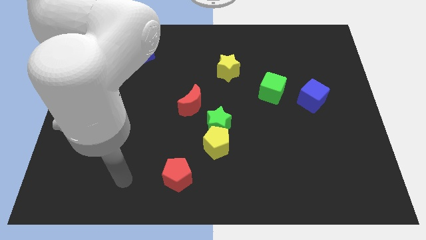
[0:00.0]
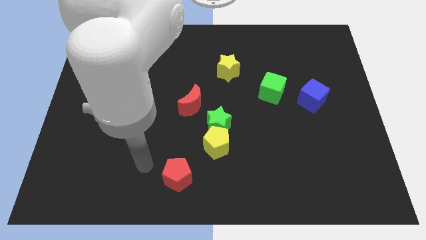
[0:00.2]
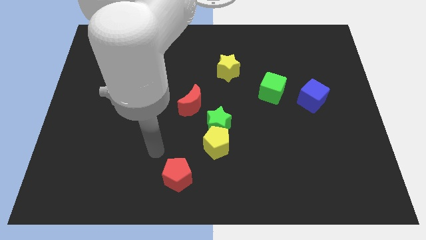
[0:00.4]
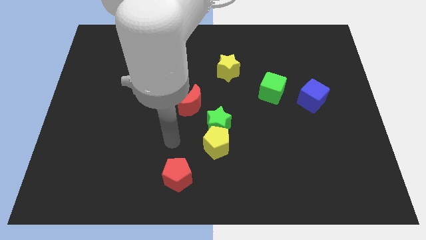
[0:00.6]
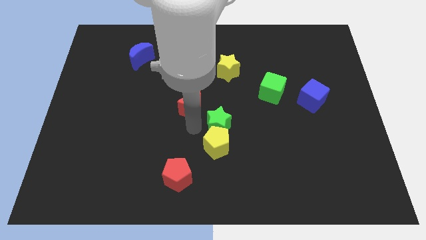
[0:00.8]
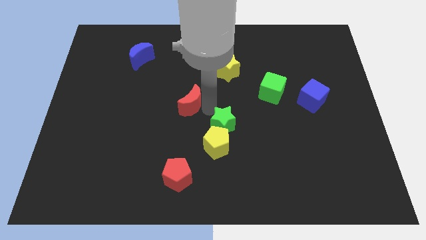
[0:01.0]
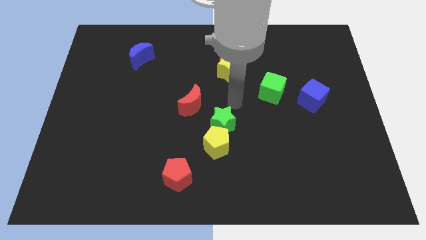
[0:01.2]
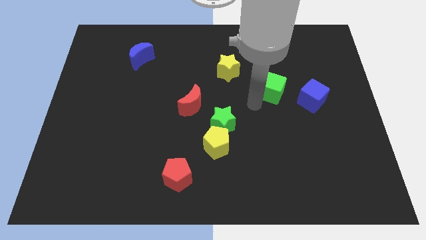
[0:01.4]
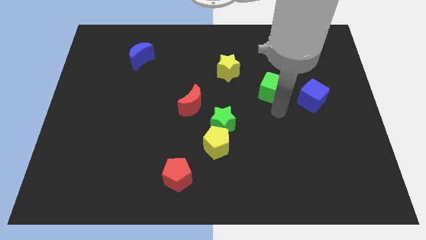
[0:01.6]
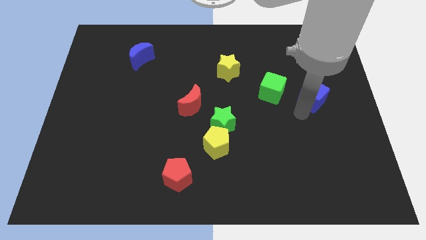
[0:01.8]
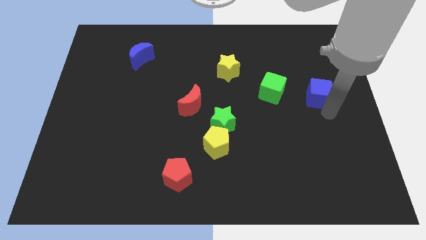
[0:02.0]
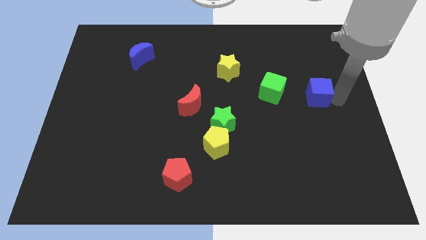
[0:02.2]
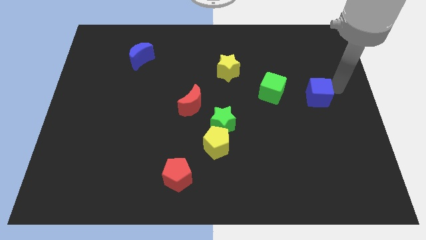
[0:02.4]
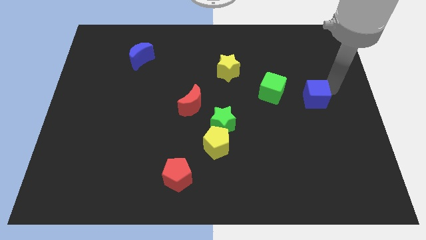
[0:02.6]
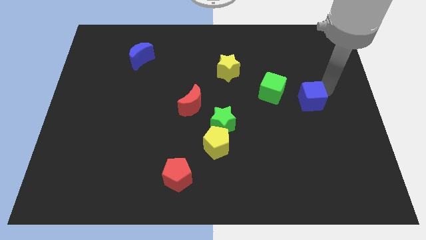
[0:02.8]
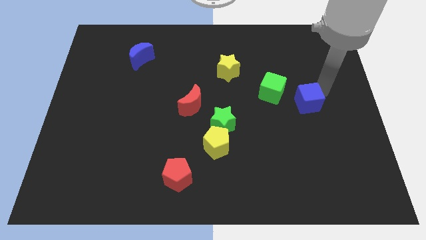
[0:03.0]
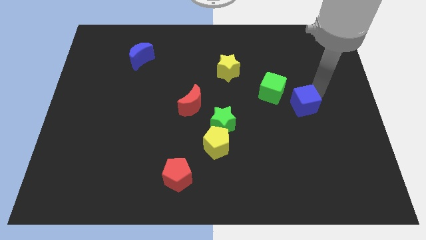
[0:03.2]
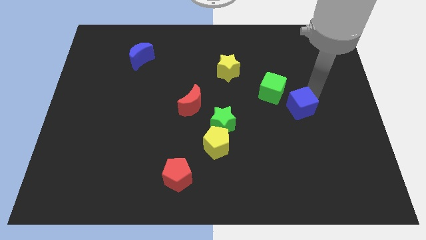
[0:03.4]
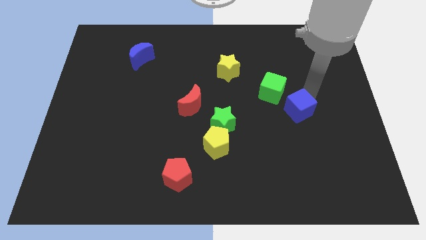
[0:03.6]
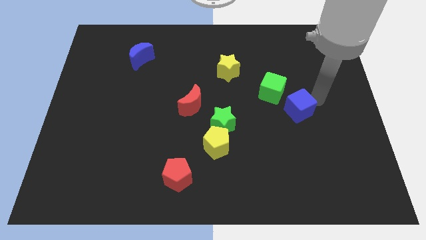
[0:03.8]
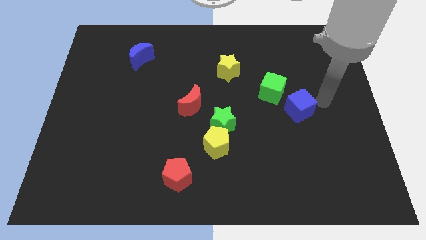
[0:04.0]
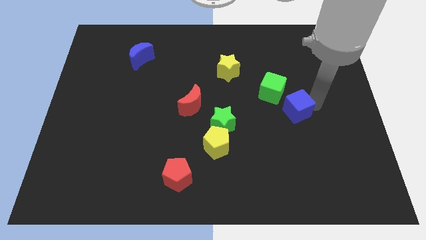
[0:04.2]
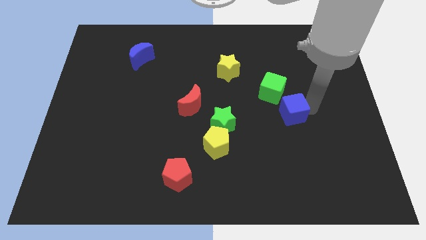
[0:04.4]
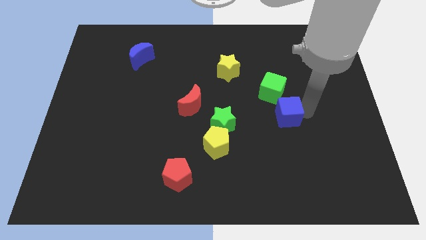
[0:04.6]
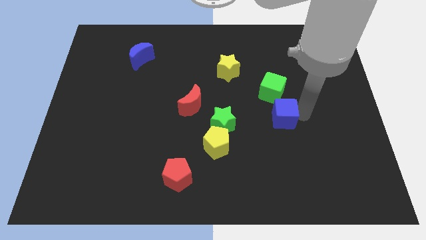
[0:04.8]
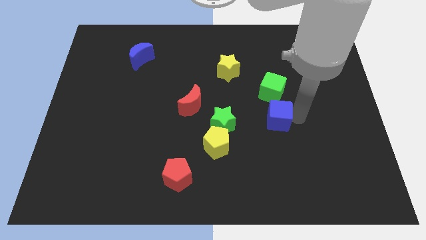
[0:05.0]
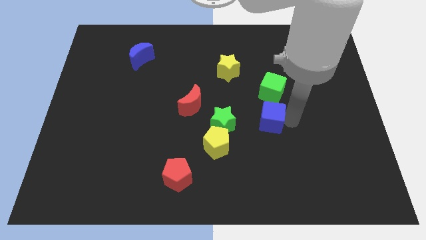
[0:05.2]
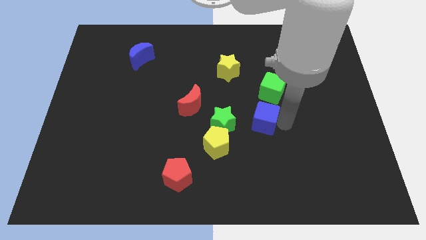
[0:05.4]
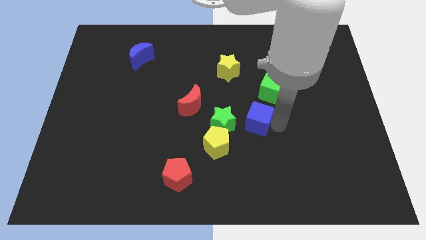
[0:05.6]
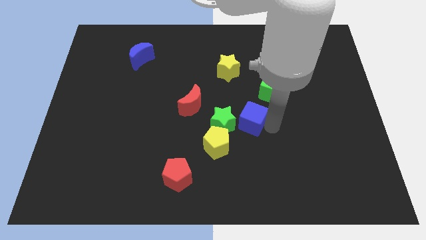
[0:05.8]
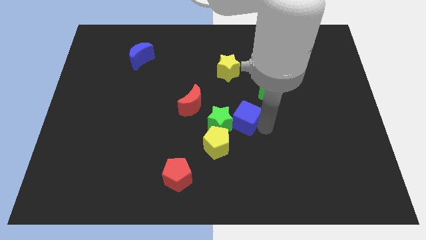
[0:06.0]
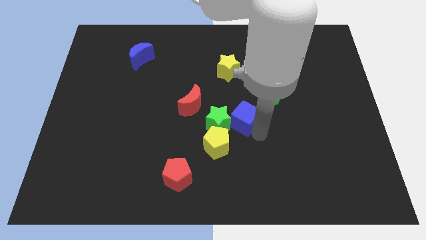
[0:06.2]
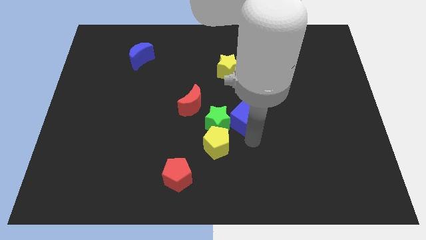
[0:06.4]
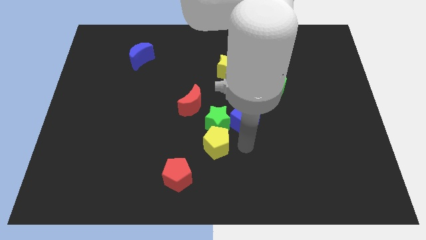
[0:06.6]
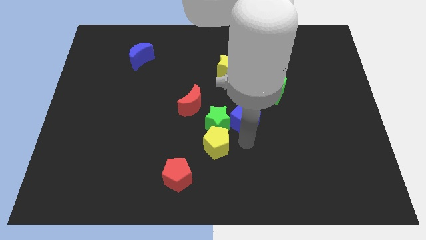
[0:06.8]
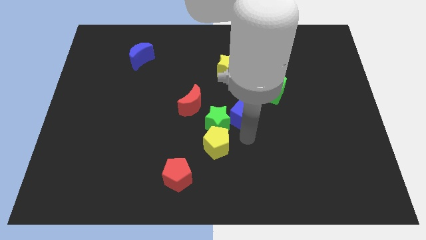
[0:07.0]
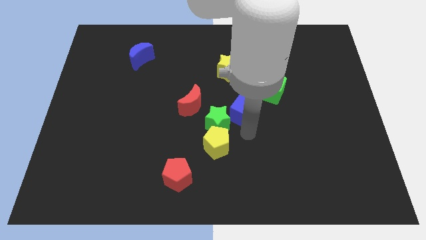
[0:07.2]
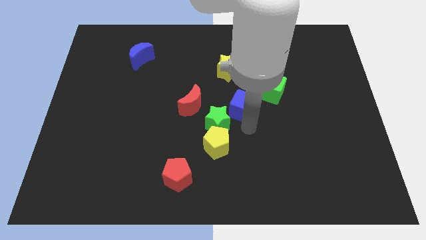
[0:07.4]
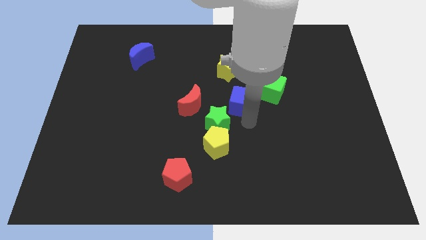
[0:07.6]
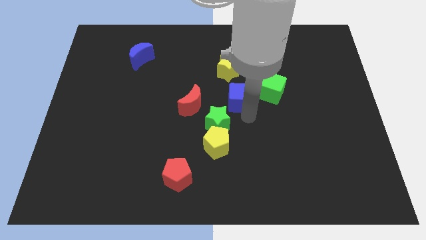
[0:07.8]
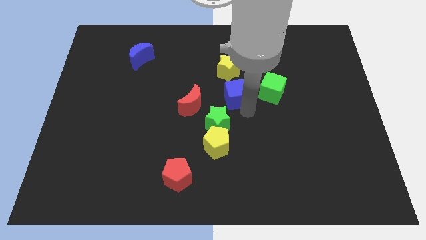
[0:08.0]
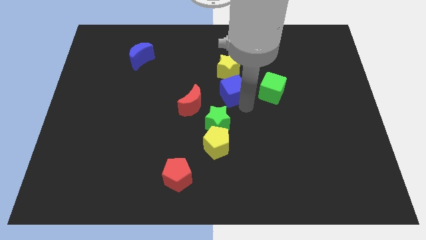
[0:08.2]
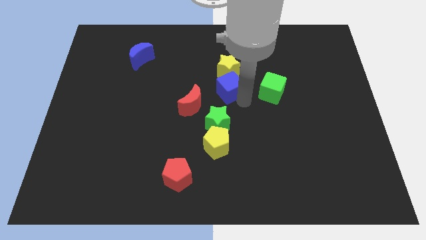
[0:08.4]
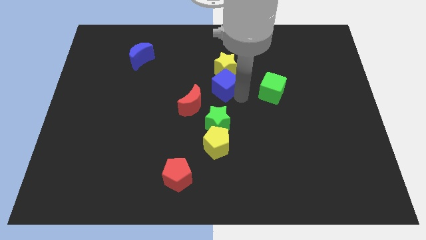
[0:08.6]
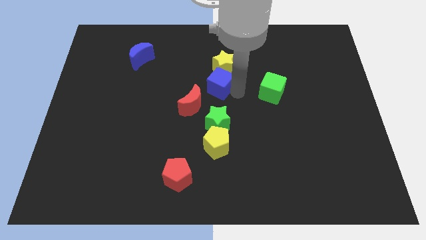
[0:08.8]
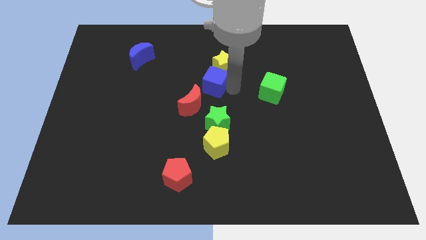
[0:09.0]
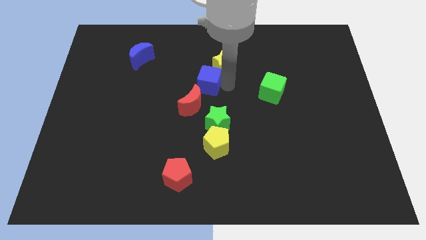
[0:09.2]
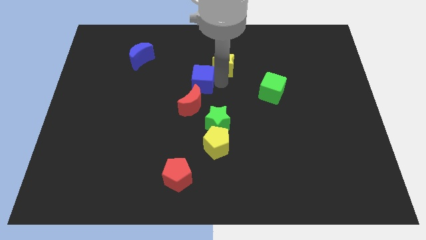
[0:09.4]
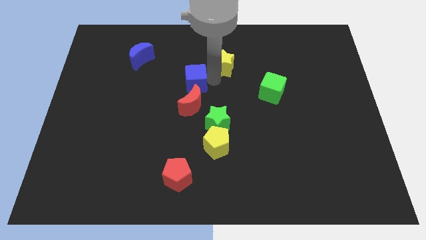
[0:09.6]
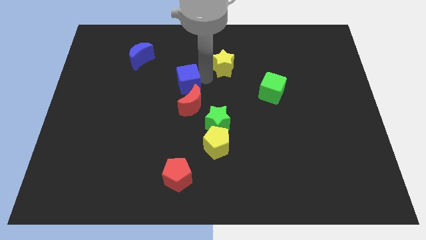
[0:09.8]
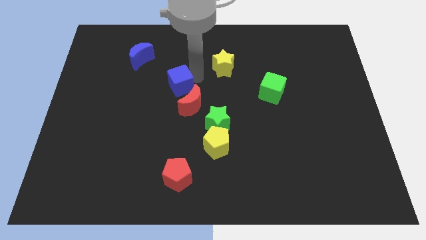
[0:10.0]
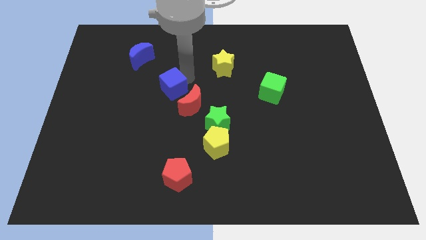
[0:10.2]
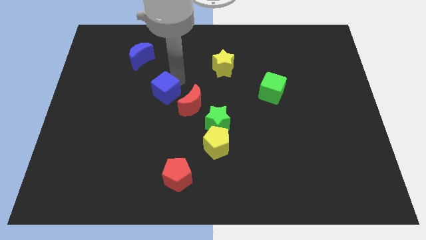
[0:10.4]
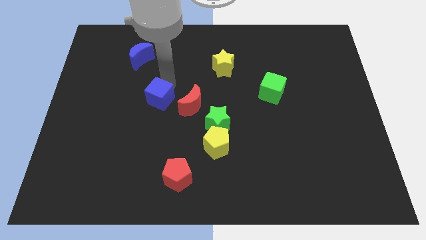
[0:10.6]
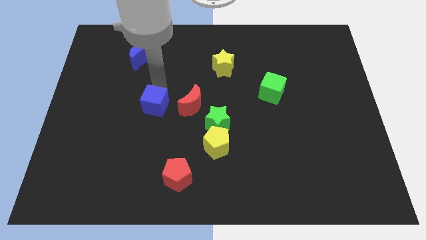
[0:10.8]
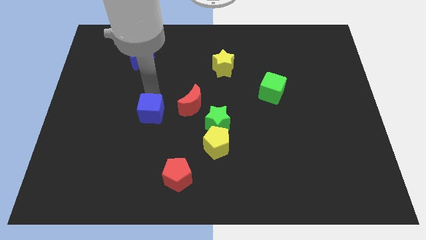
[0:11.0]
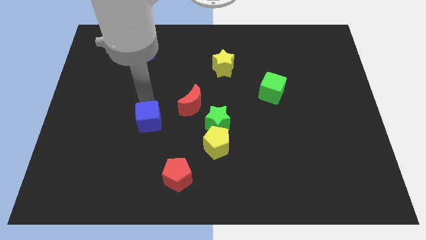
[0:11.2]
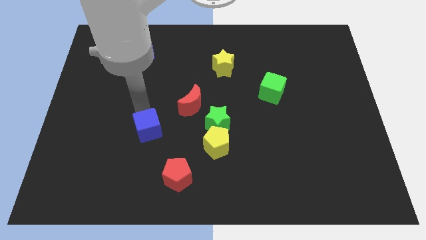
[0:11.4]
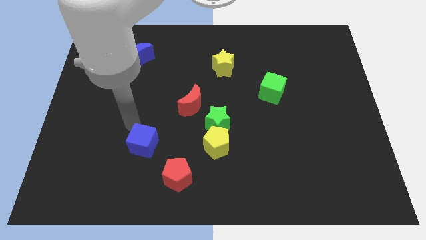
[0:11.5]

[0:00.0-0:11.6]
put the blue cube to the top left side of the red pentagon

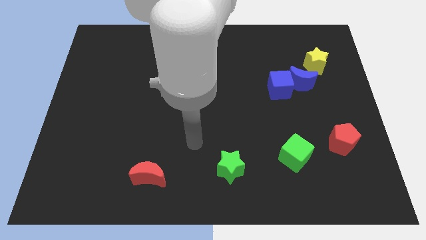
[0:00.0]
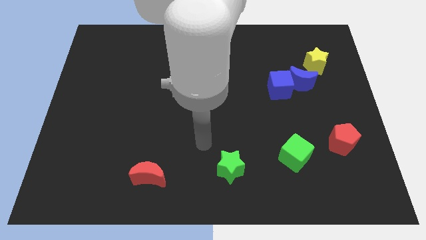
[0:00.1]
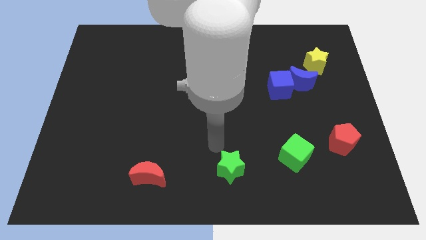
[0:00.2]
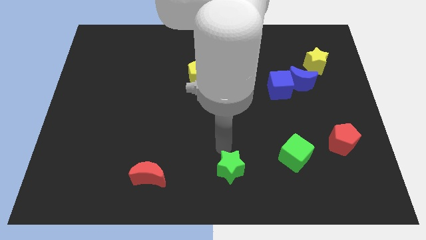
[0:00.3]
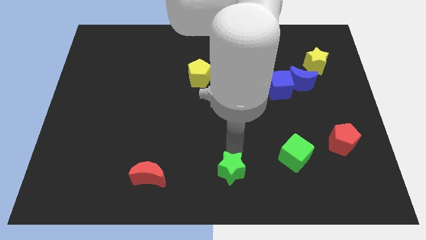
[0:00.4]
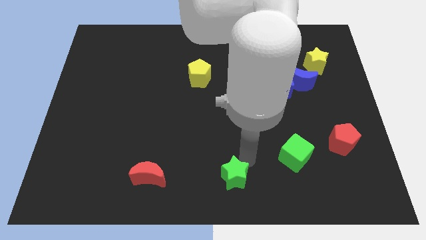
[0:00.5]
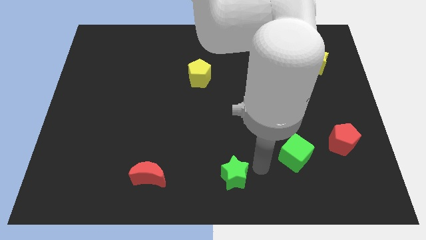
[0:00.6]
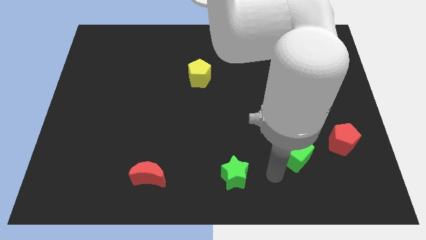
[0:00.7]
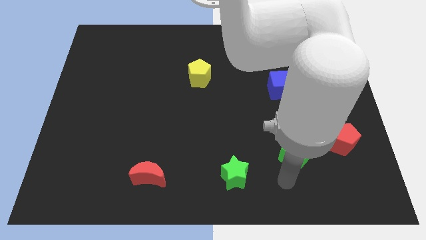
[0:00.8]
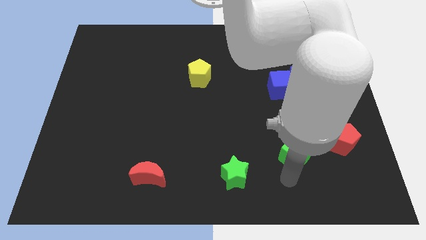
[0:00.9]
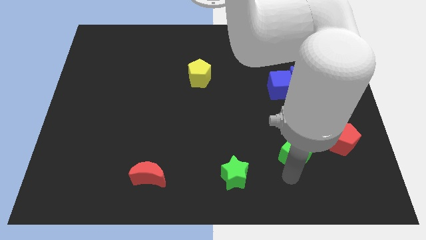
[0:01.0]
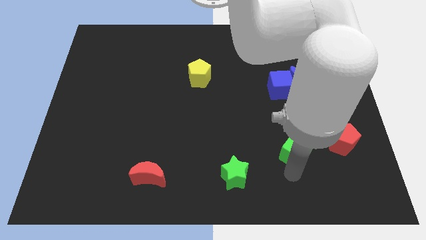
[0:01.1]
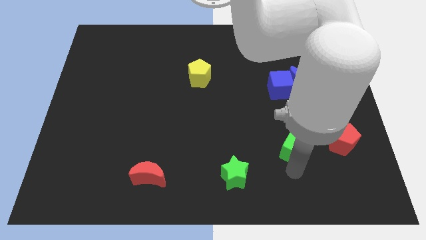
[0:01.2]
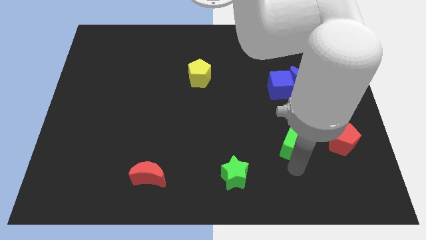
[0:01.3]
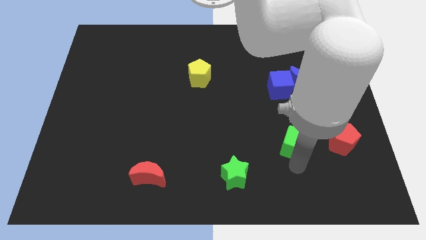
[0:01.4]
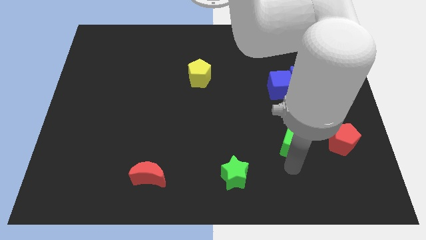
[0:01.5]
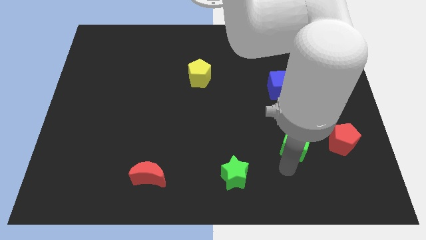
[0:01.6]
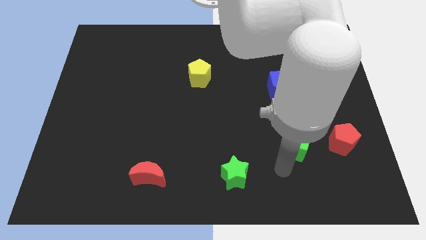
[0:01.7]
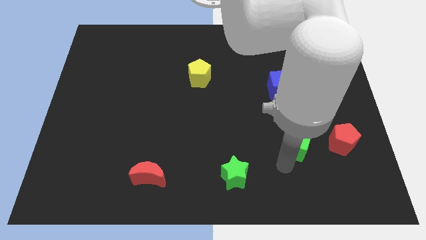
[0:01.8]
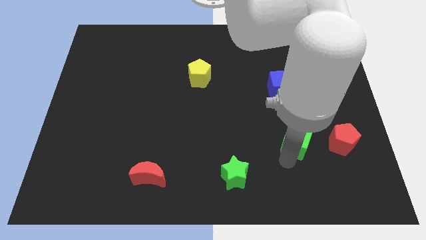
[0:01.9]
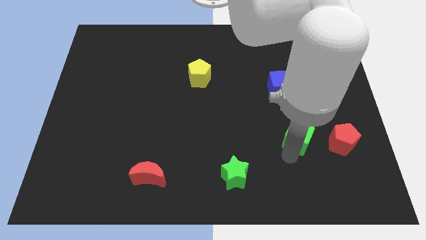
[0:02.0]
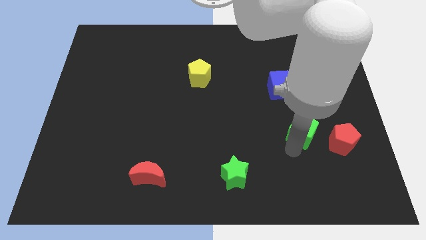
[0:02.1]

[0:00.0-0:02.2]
move the green cube to the bottom of the blue moon
